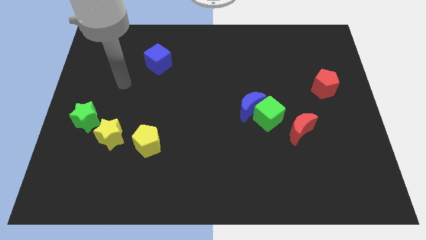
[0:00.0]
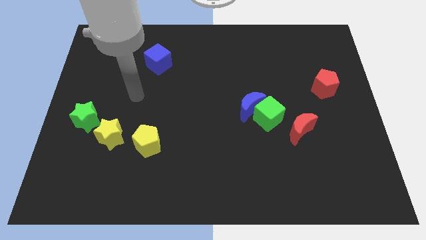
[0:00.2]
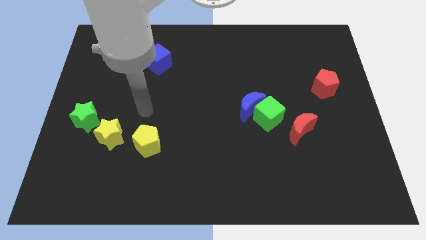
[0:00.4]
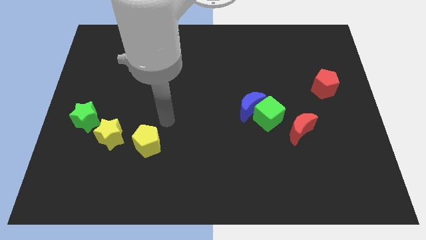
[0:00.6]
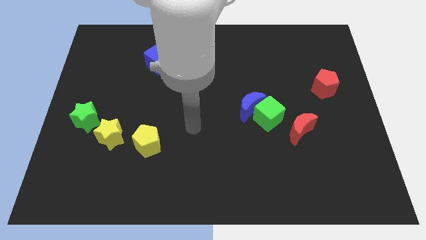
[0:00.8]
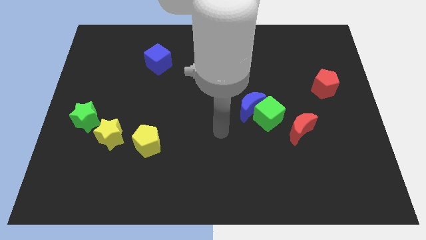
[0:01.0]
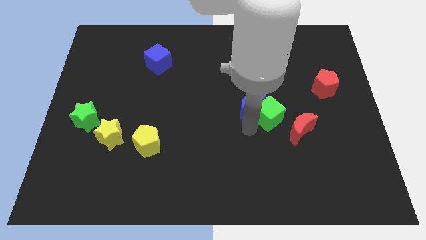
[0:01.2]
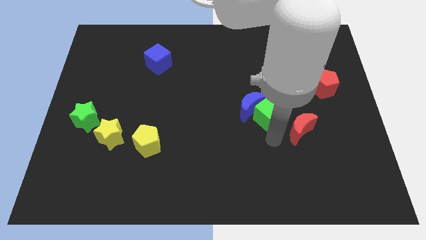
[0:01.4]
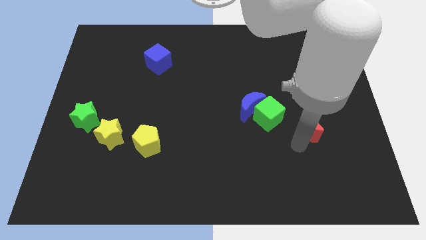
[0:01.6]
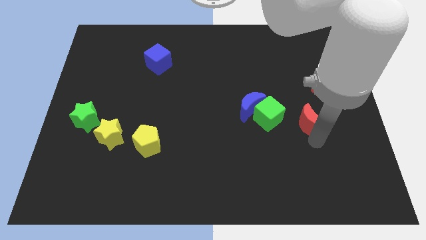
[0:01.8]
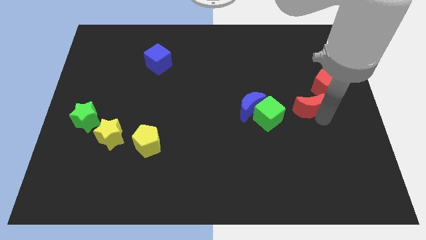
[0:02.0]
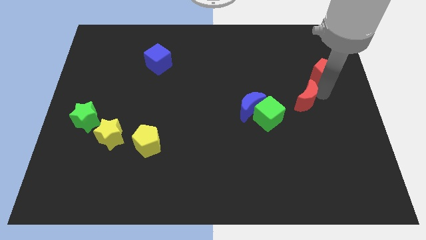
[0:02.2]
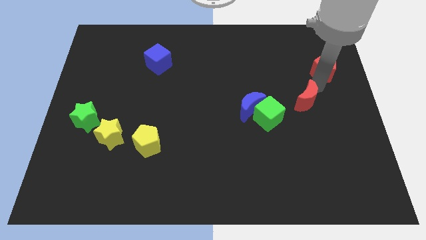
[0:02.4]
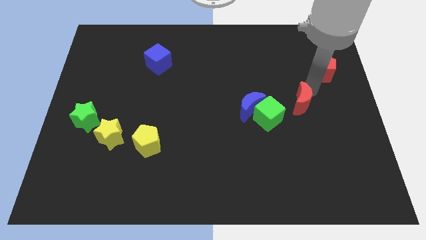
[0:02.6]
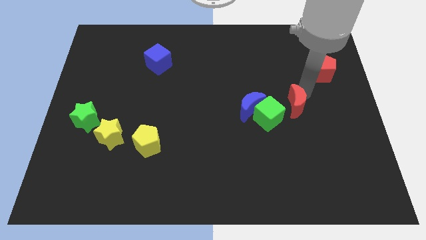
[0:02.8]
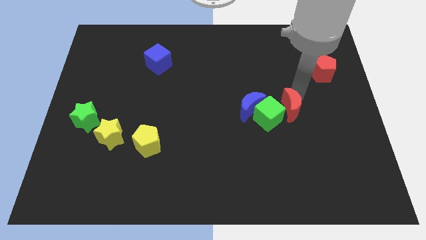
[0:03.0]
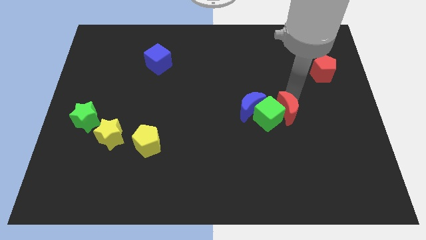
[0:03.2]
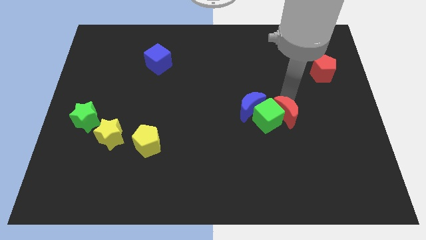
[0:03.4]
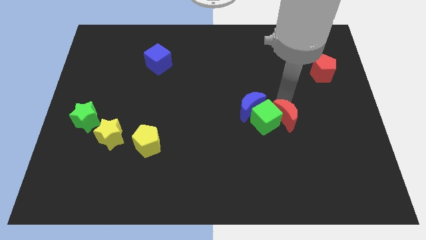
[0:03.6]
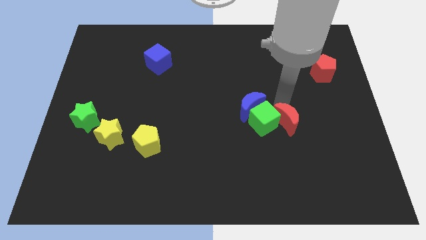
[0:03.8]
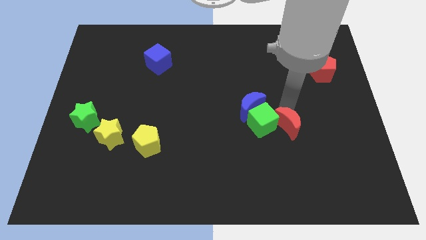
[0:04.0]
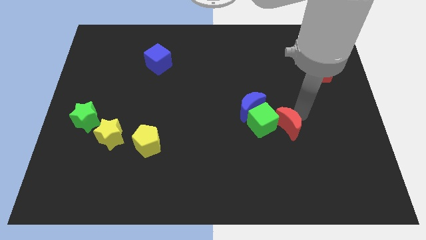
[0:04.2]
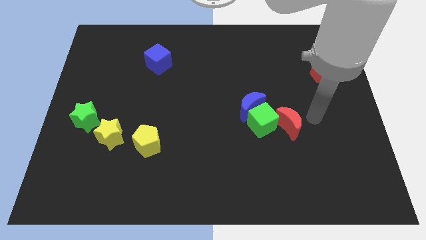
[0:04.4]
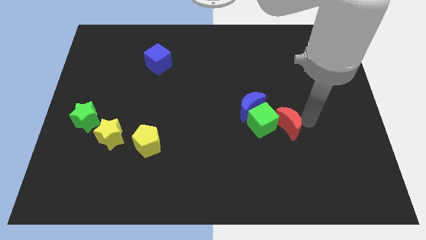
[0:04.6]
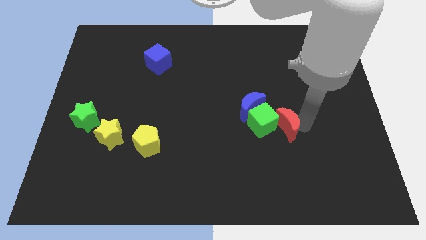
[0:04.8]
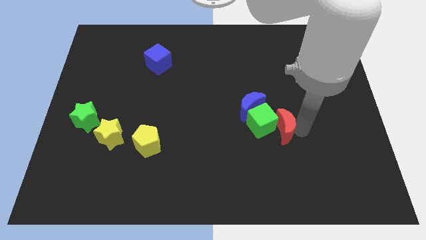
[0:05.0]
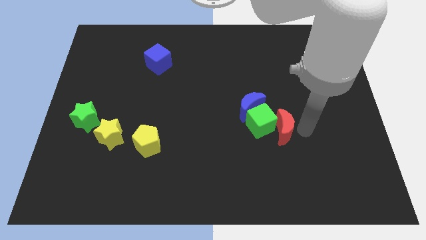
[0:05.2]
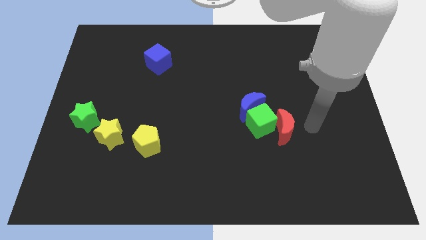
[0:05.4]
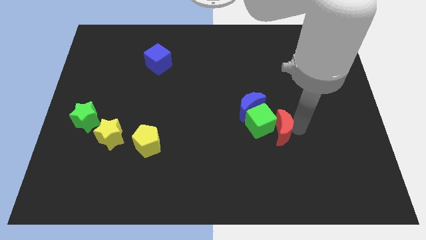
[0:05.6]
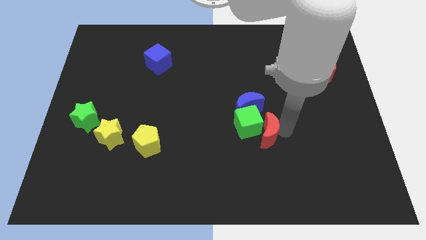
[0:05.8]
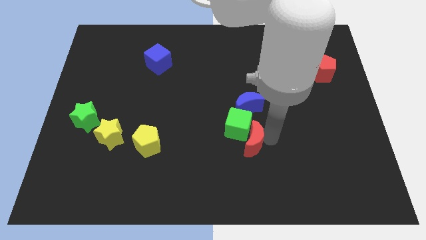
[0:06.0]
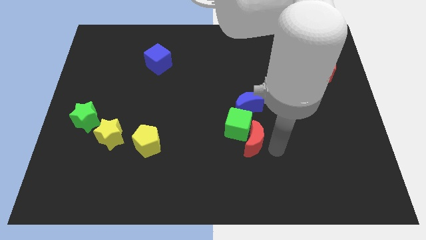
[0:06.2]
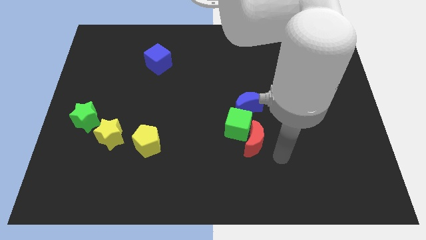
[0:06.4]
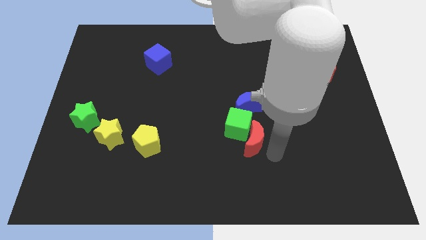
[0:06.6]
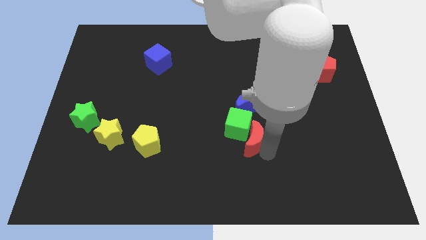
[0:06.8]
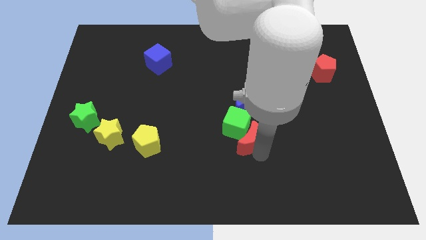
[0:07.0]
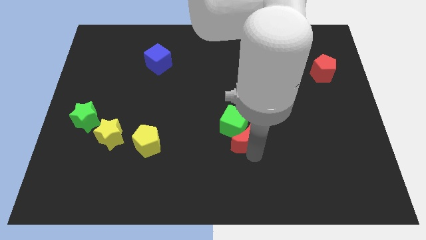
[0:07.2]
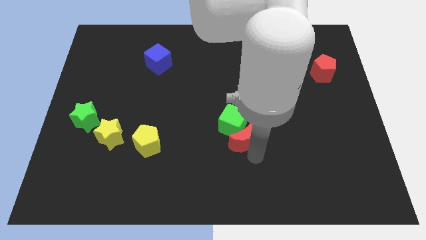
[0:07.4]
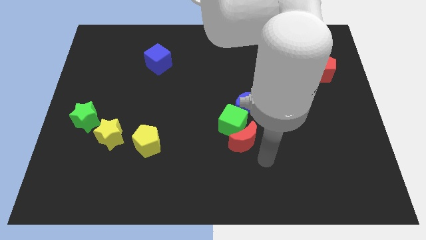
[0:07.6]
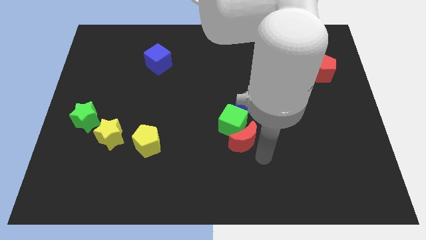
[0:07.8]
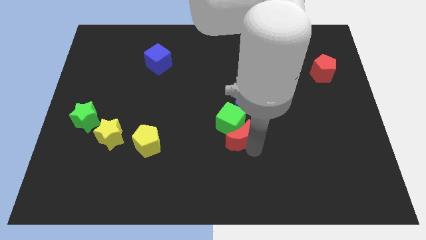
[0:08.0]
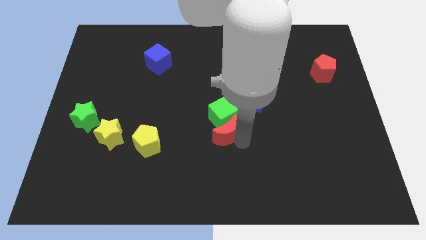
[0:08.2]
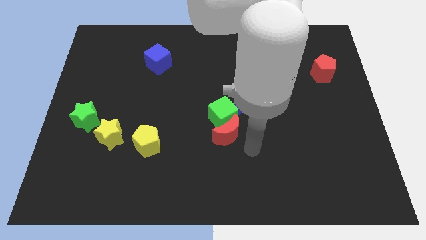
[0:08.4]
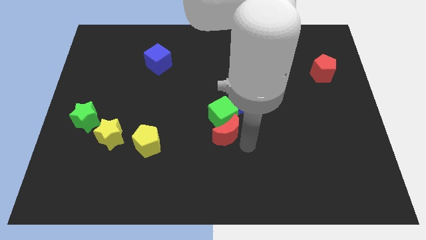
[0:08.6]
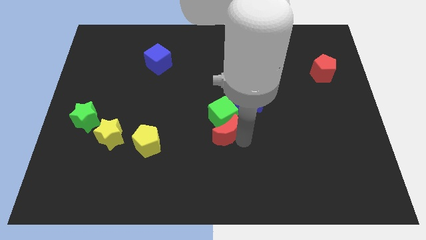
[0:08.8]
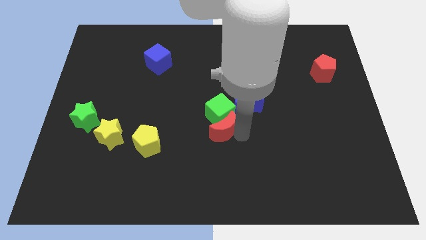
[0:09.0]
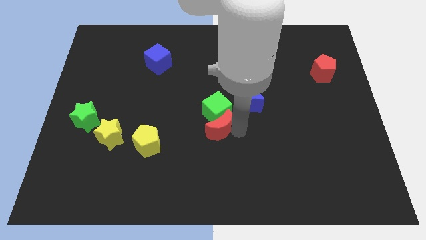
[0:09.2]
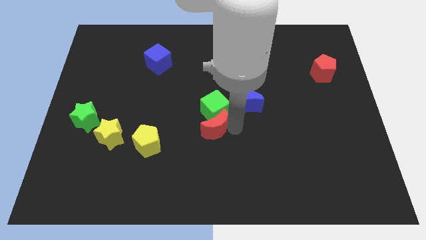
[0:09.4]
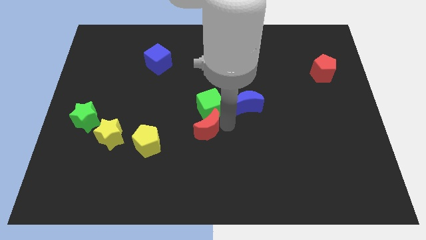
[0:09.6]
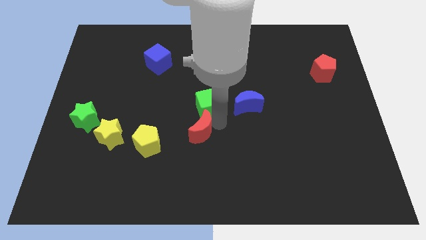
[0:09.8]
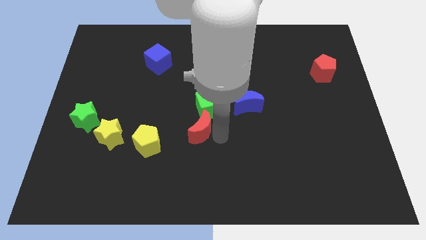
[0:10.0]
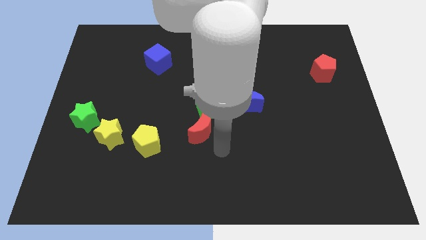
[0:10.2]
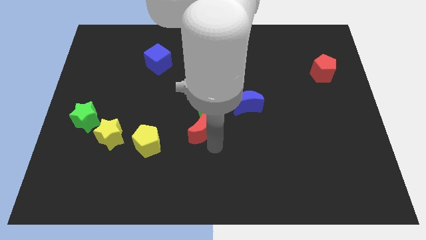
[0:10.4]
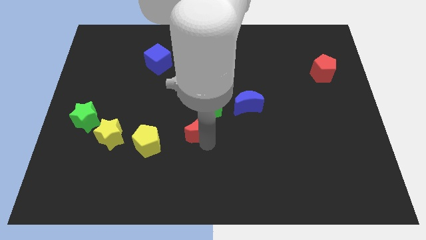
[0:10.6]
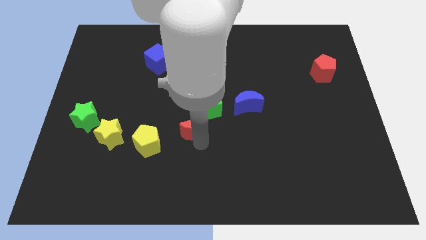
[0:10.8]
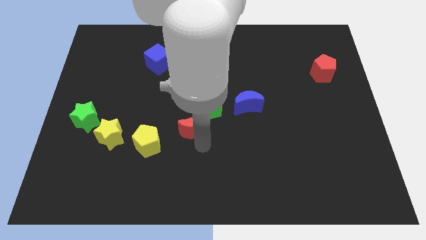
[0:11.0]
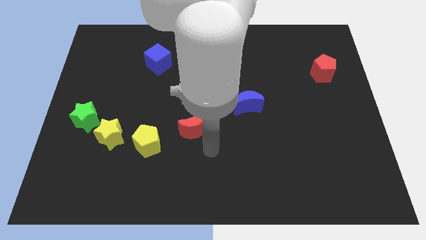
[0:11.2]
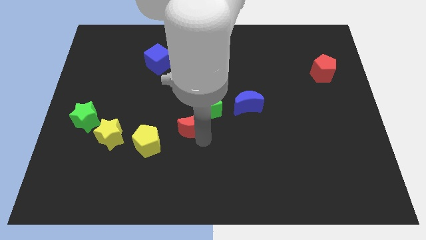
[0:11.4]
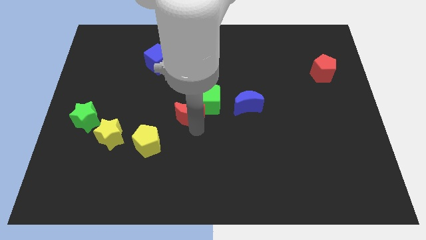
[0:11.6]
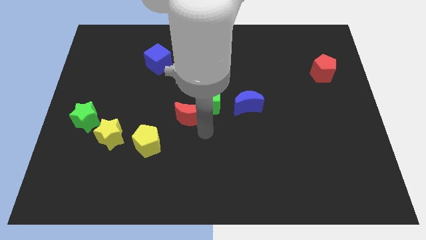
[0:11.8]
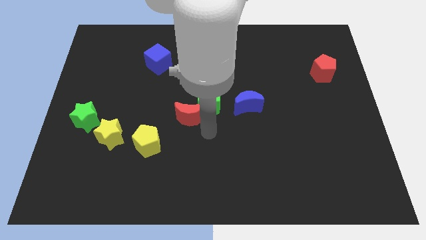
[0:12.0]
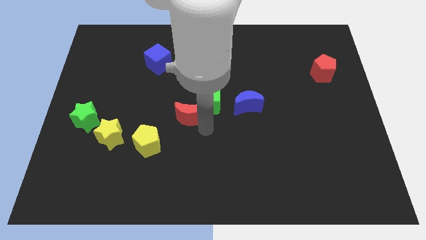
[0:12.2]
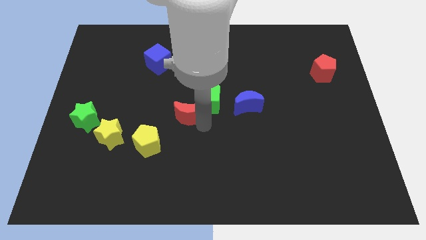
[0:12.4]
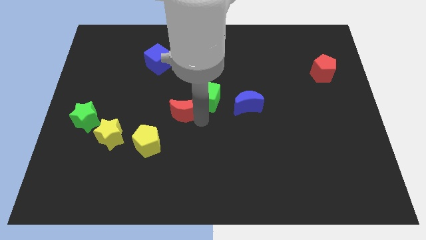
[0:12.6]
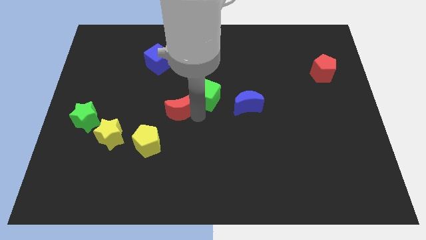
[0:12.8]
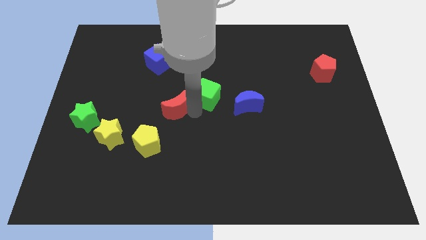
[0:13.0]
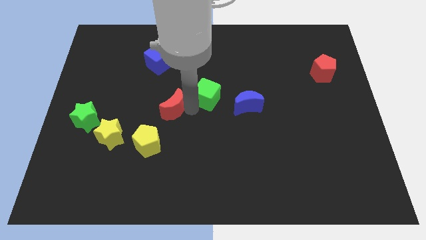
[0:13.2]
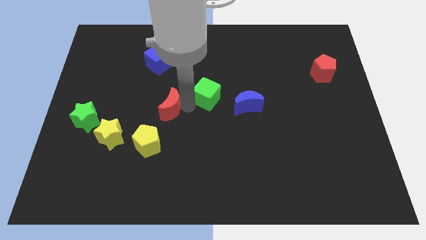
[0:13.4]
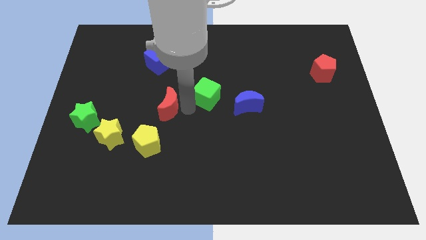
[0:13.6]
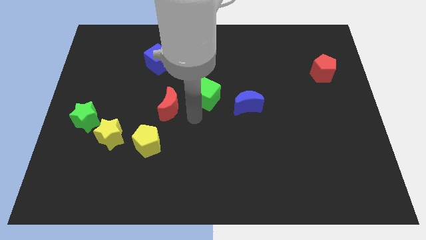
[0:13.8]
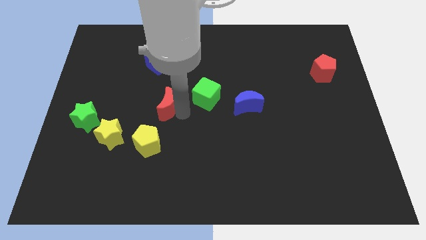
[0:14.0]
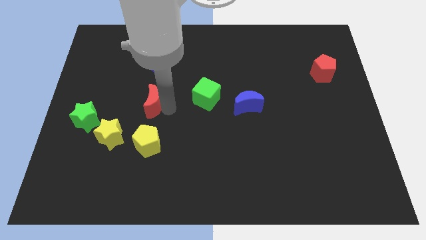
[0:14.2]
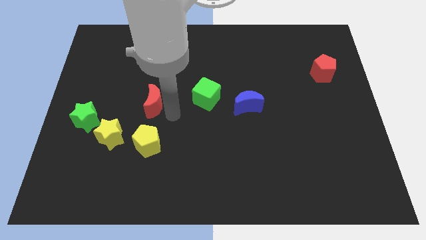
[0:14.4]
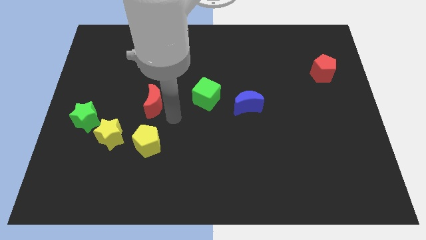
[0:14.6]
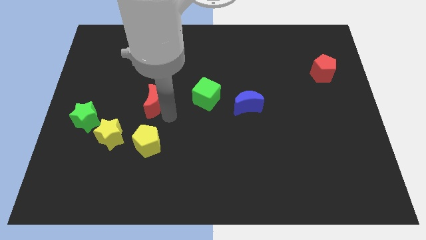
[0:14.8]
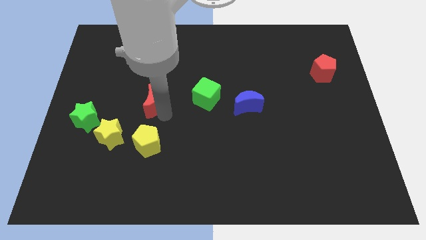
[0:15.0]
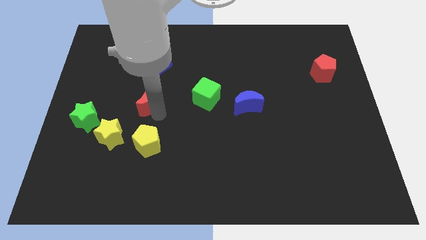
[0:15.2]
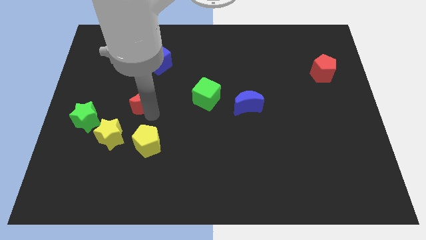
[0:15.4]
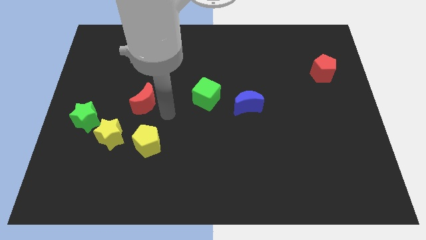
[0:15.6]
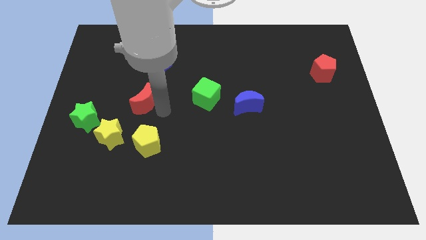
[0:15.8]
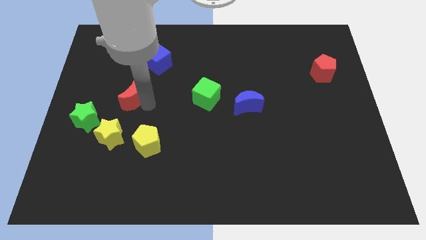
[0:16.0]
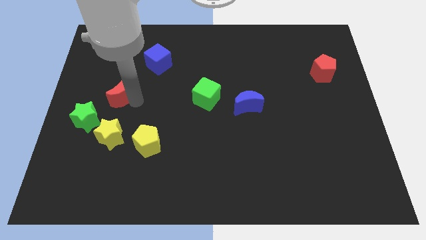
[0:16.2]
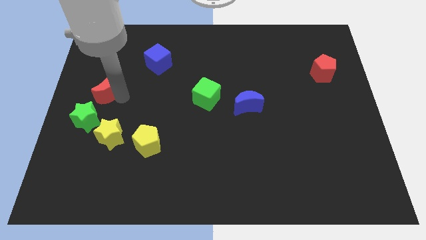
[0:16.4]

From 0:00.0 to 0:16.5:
put the red moon above the green star
